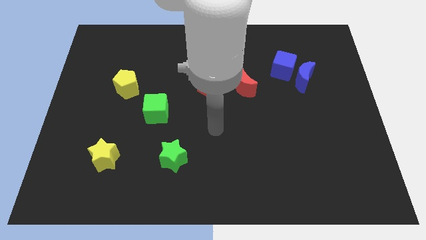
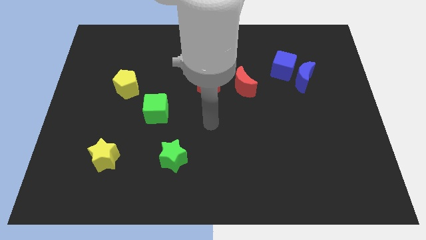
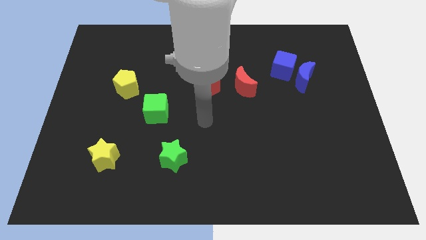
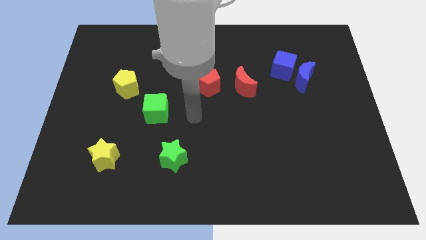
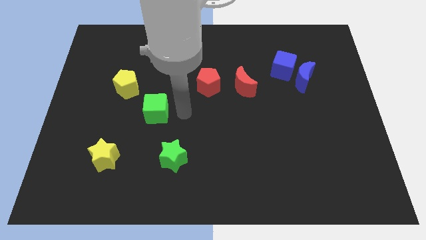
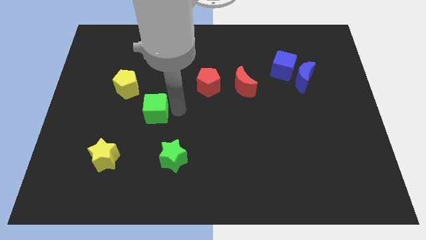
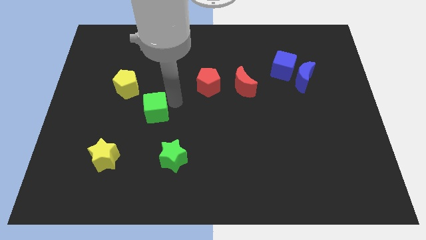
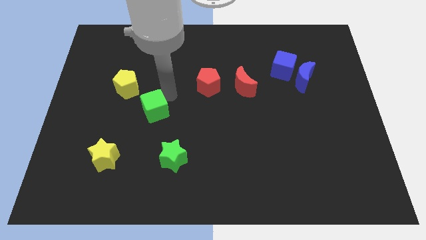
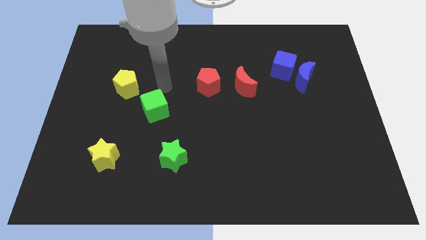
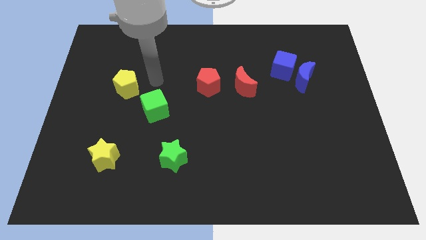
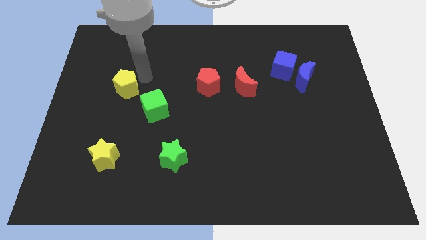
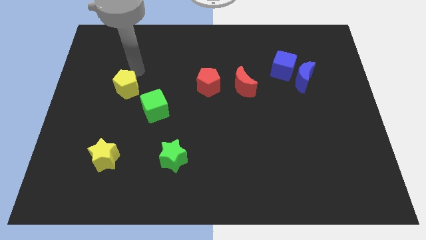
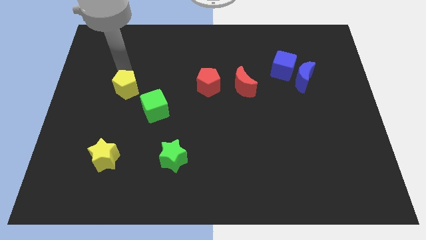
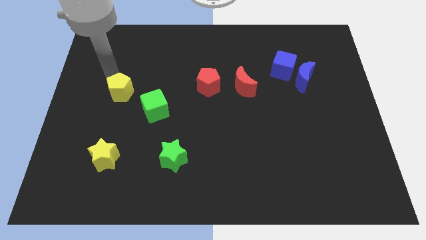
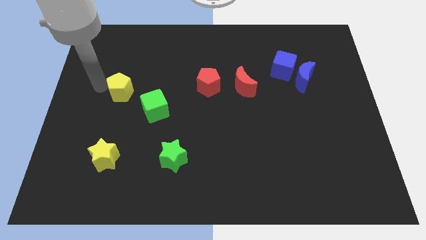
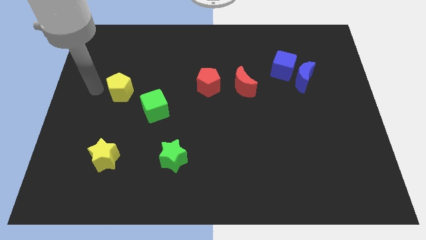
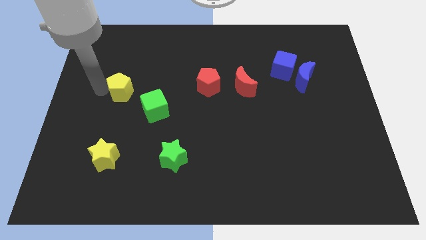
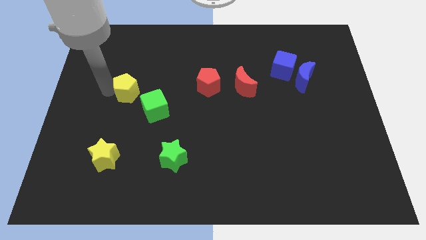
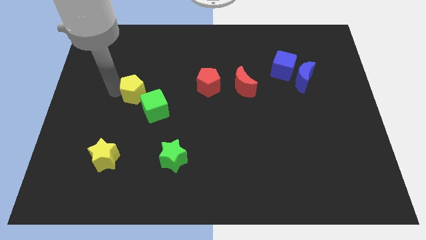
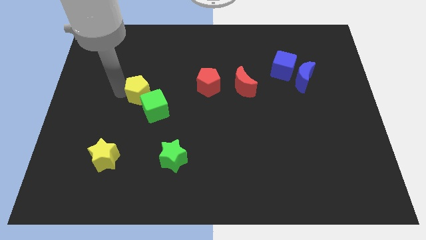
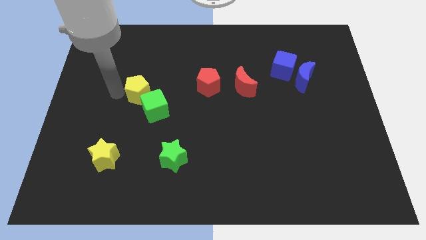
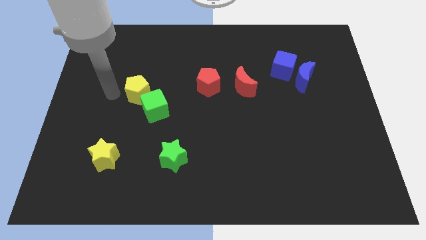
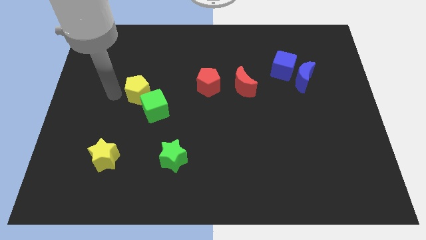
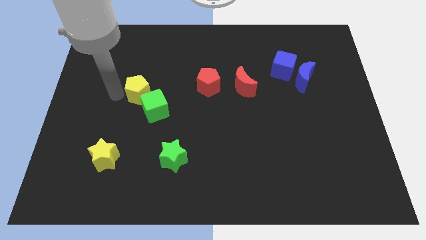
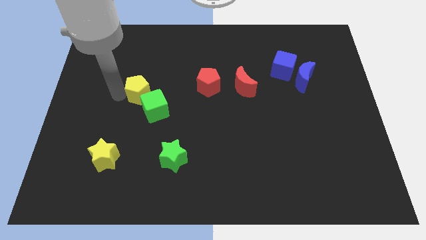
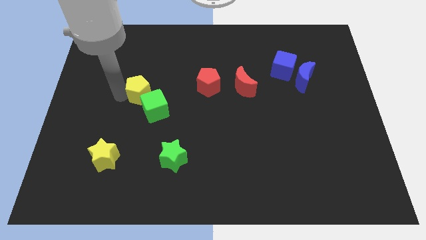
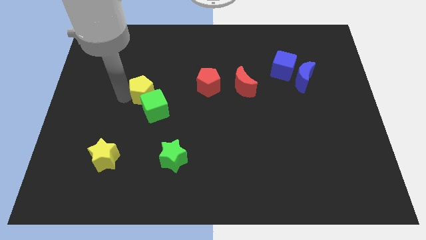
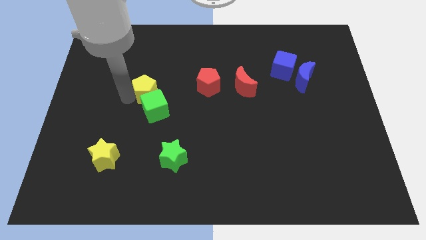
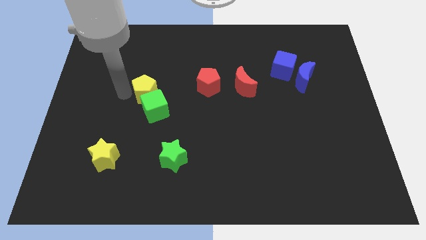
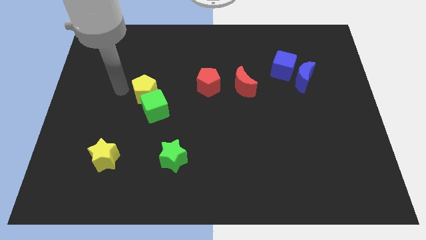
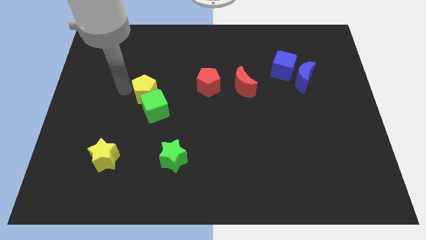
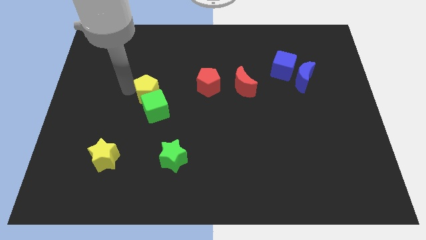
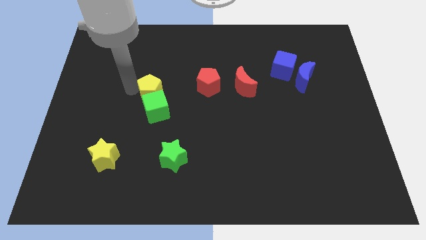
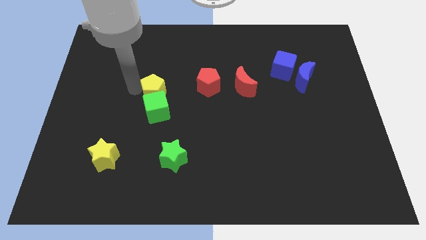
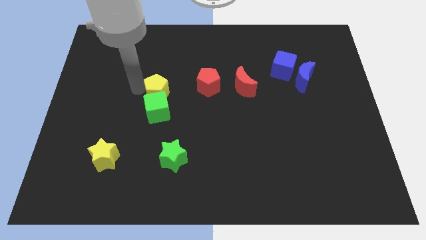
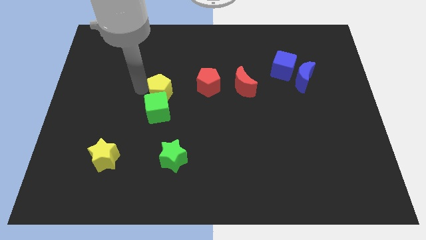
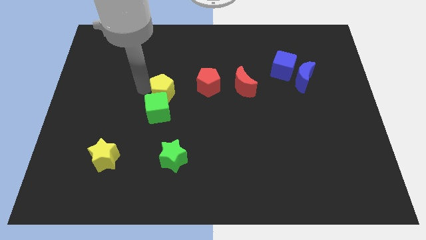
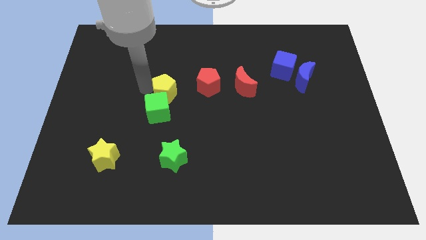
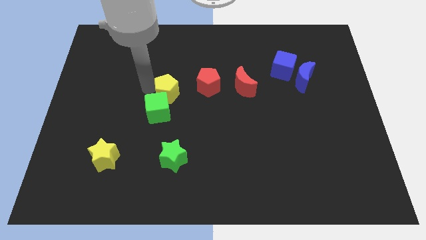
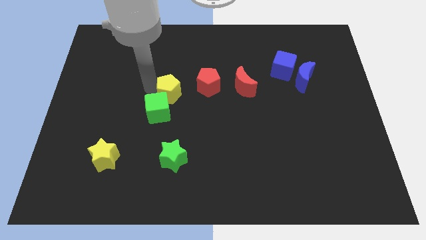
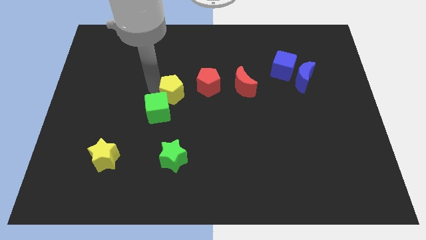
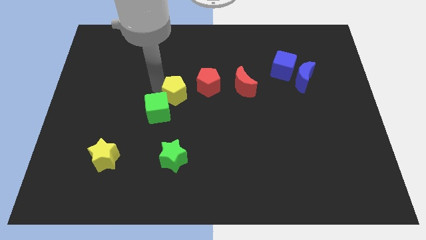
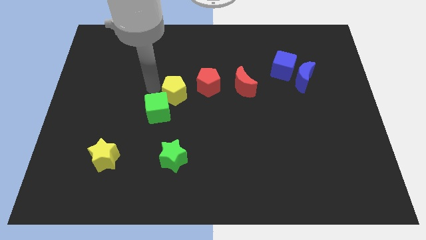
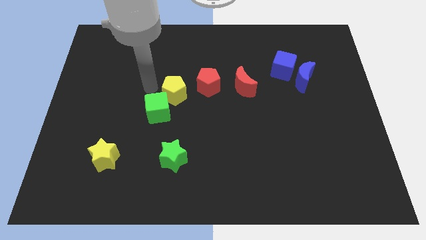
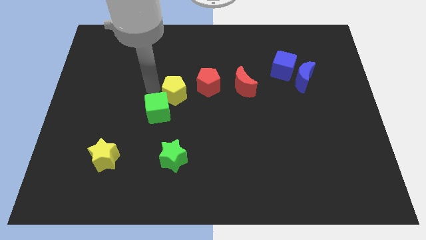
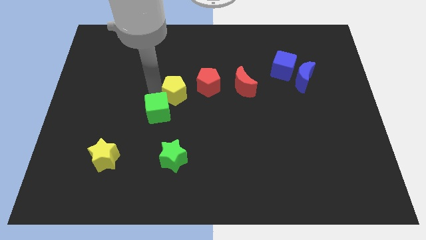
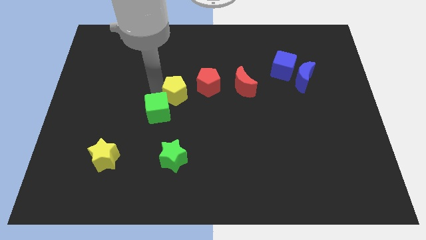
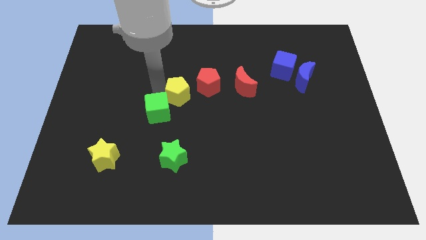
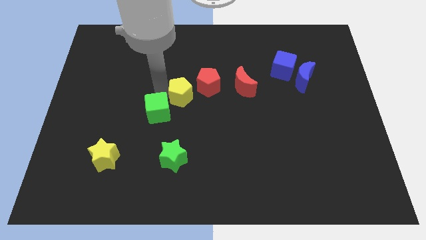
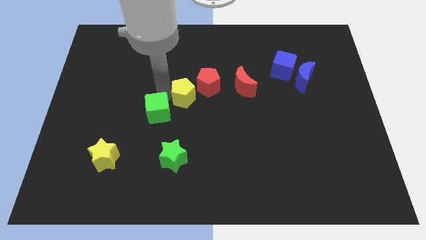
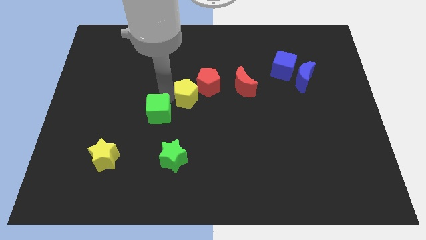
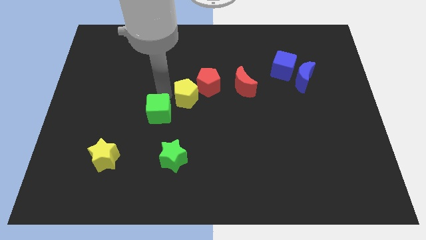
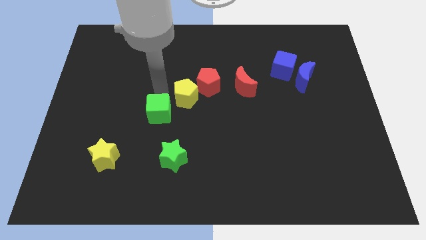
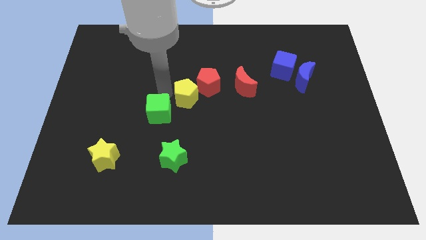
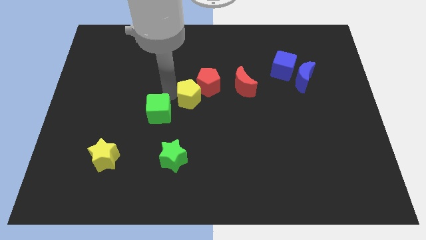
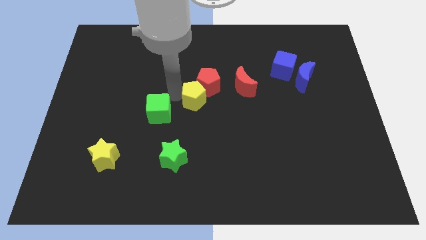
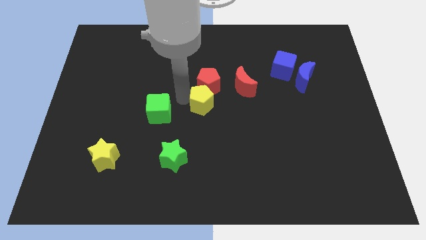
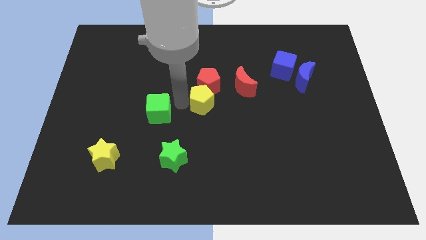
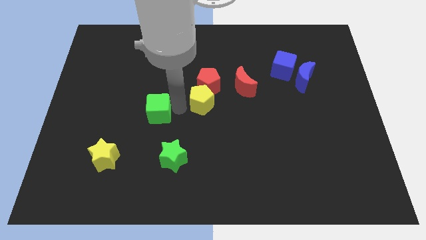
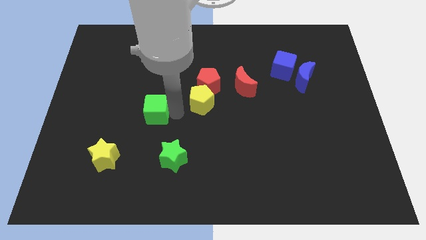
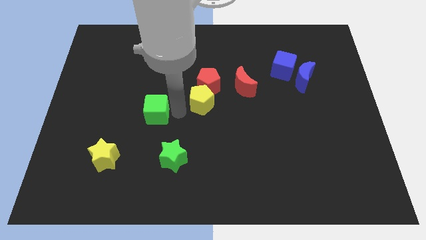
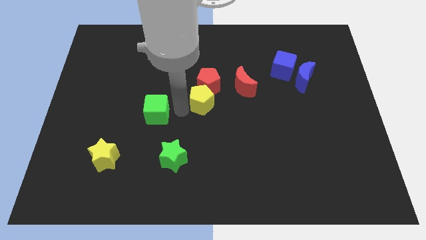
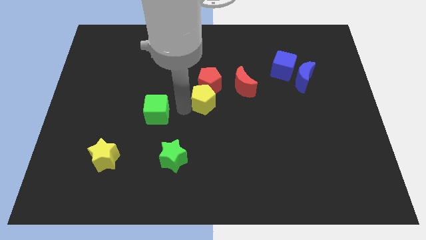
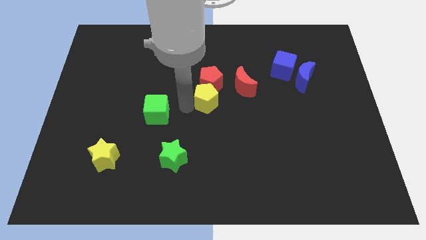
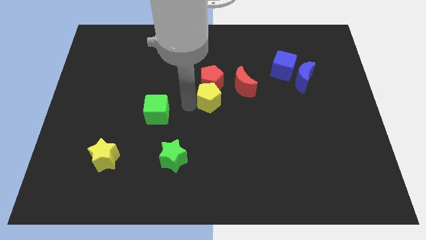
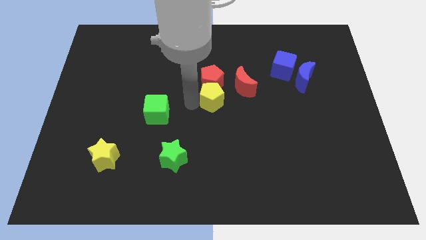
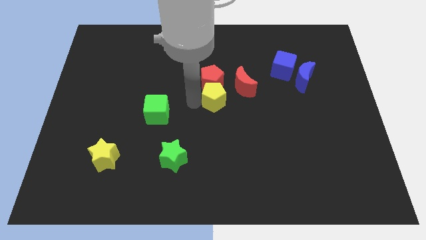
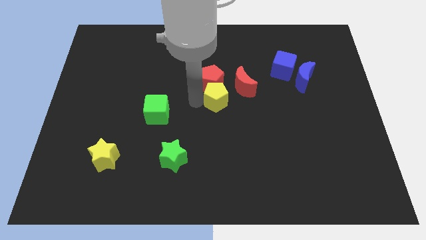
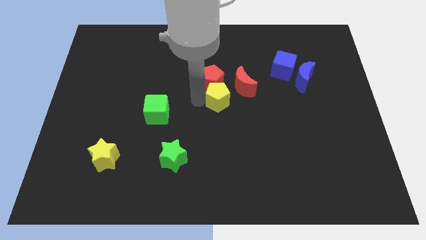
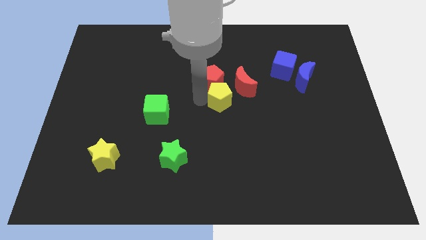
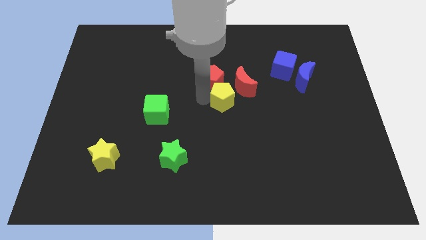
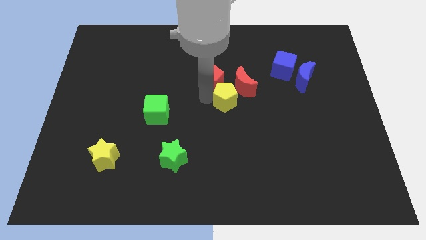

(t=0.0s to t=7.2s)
slide the yellow pentagon towards the red moon

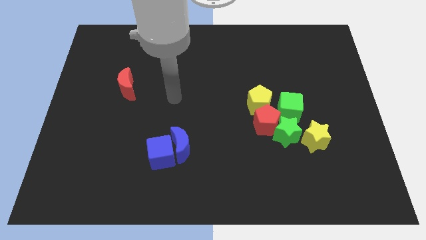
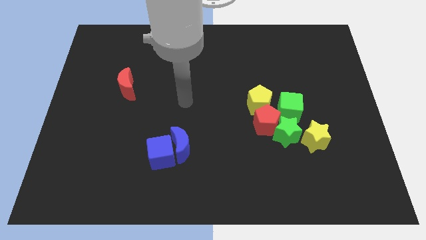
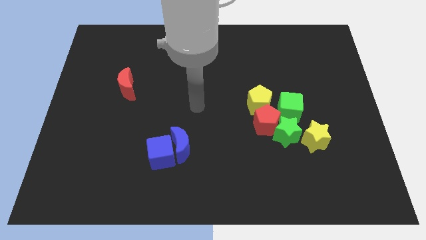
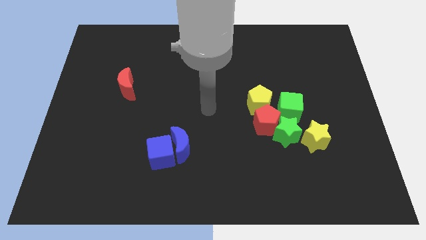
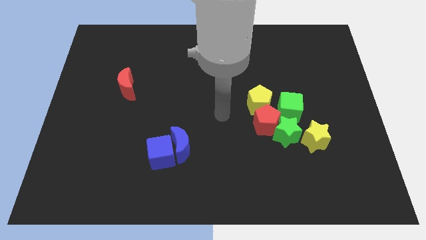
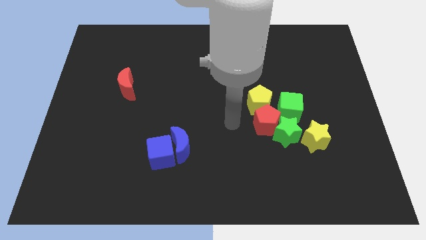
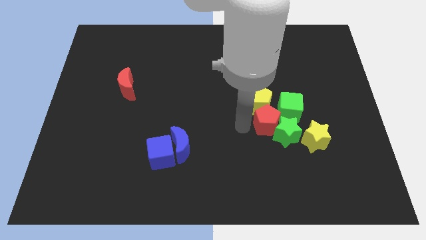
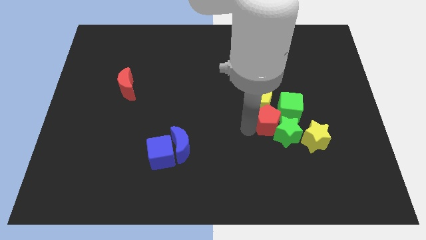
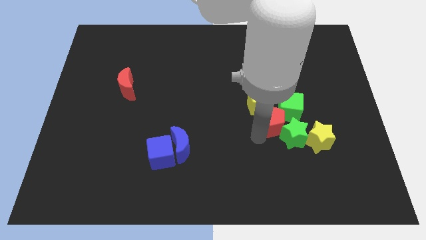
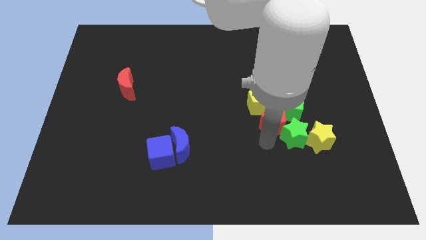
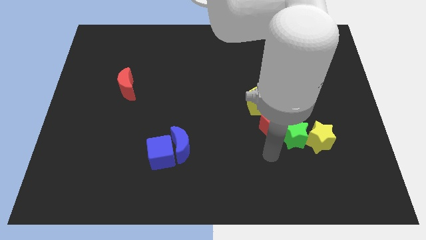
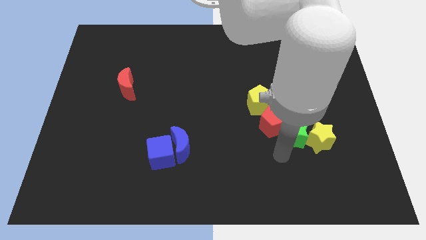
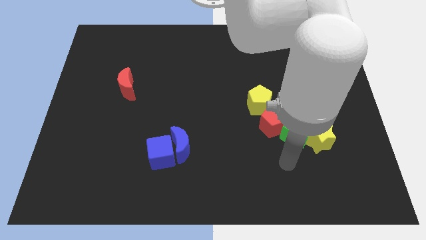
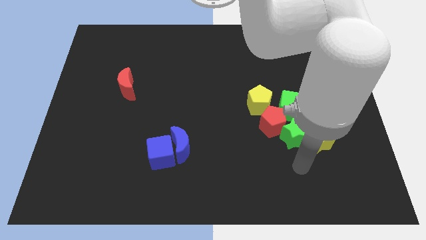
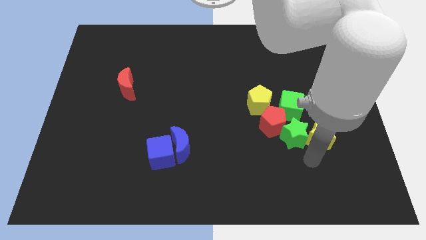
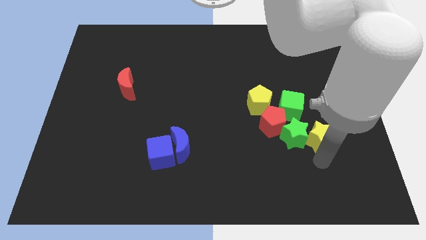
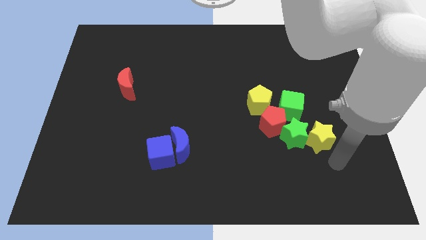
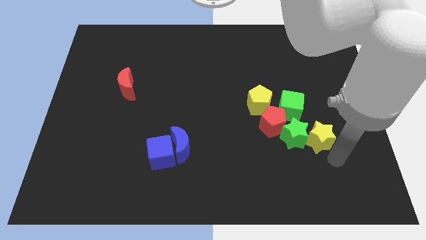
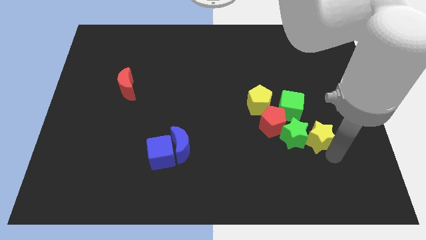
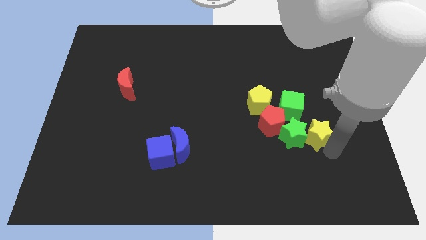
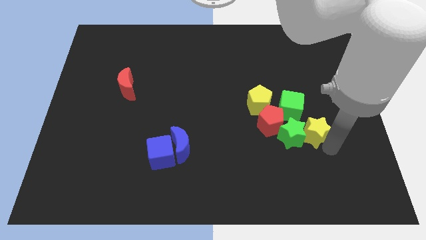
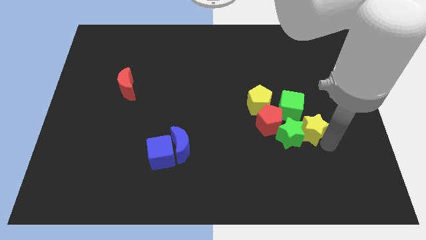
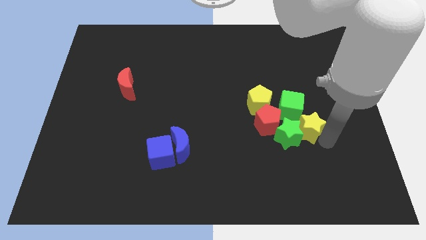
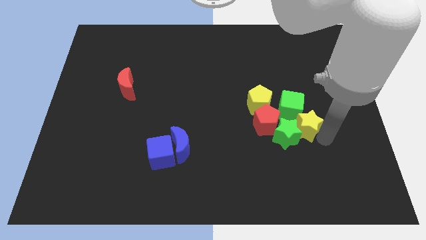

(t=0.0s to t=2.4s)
move the yellow star close to the green cube
